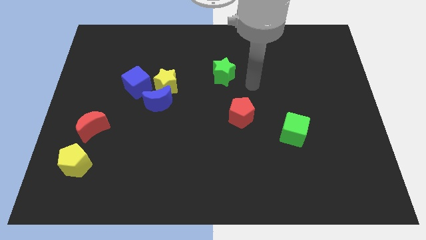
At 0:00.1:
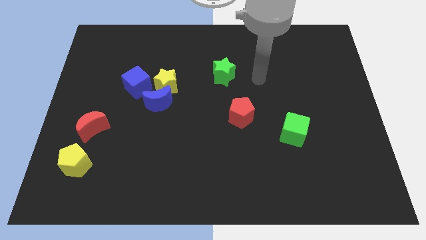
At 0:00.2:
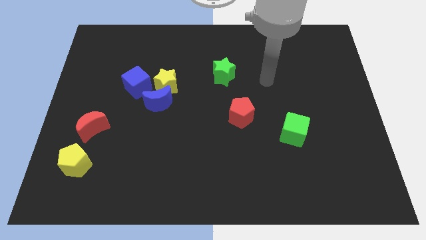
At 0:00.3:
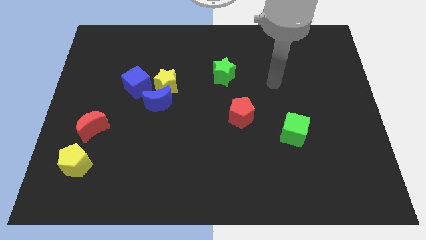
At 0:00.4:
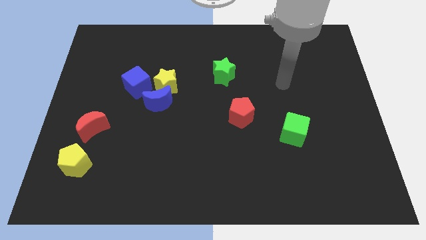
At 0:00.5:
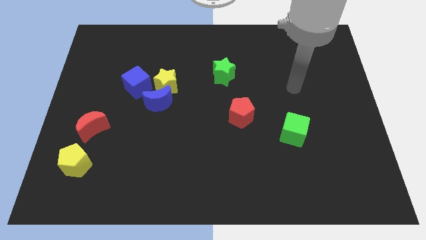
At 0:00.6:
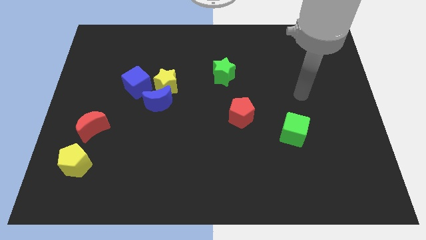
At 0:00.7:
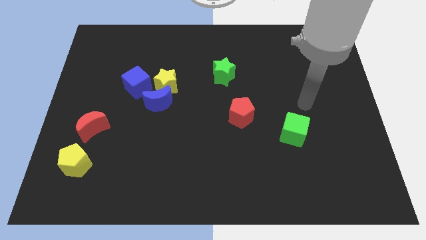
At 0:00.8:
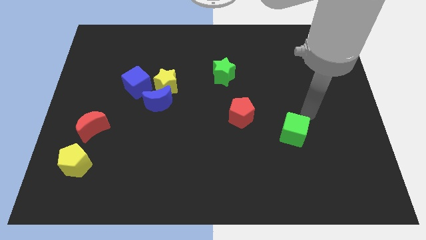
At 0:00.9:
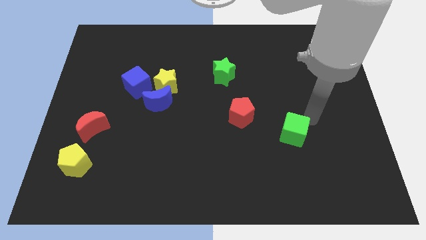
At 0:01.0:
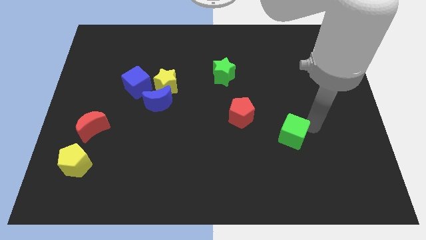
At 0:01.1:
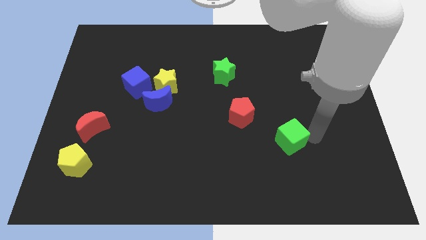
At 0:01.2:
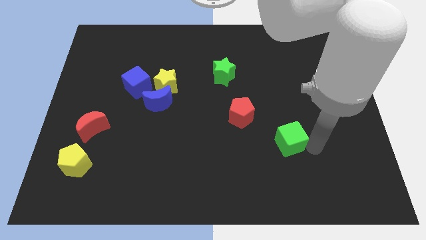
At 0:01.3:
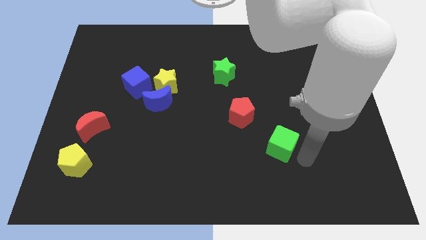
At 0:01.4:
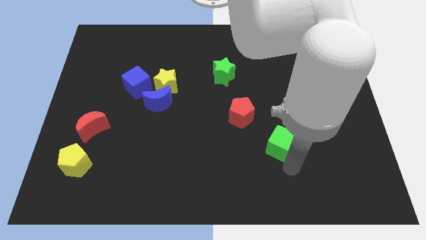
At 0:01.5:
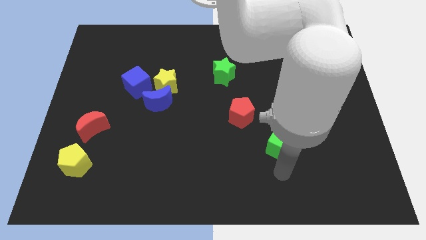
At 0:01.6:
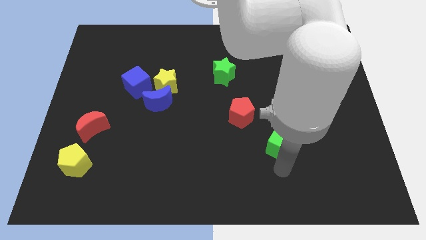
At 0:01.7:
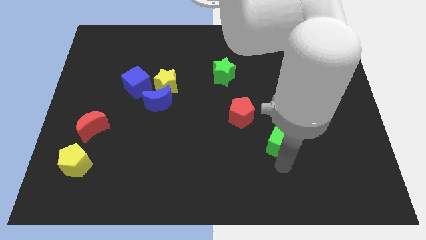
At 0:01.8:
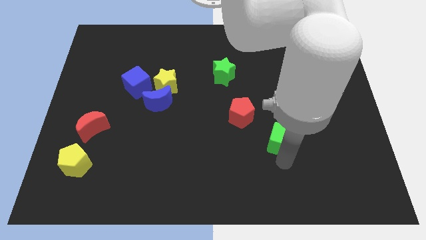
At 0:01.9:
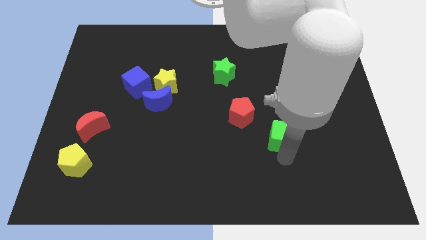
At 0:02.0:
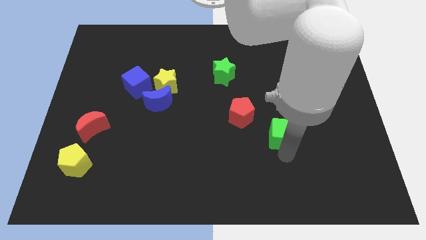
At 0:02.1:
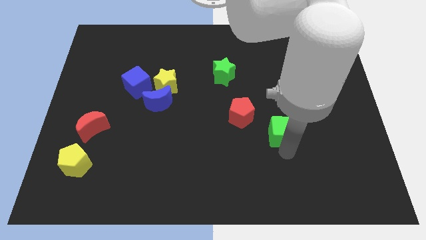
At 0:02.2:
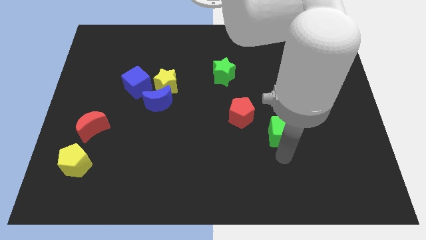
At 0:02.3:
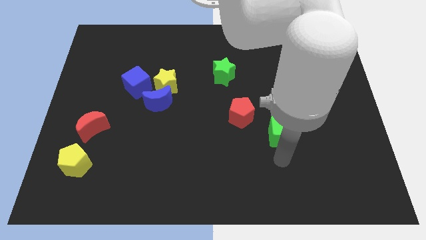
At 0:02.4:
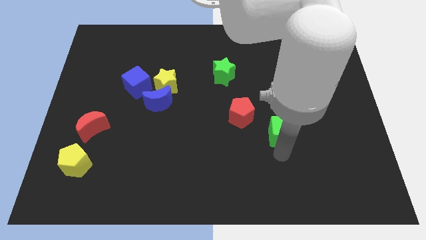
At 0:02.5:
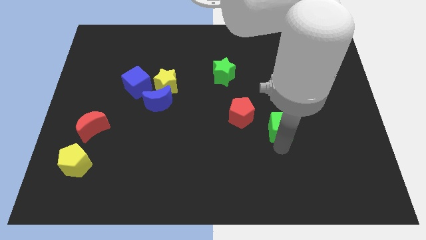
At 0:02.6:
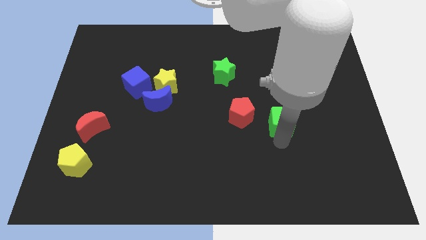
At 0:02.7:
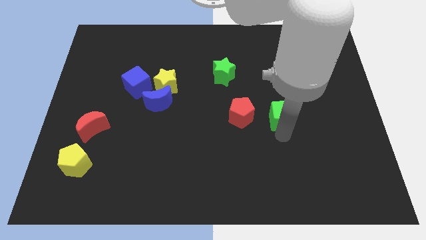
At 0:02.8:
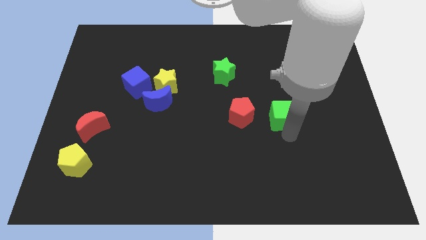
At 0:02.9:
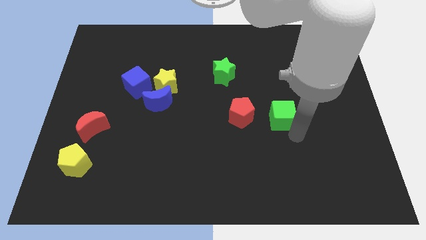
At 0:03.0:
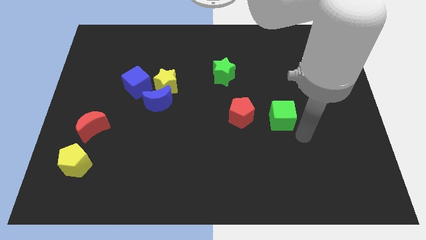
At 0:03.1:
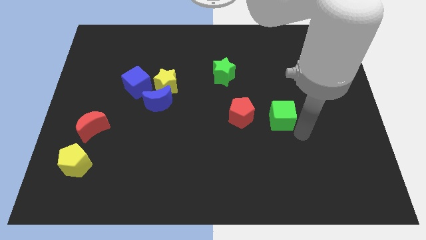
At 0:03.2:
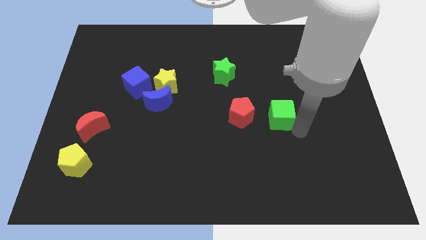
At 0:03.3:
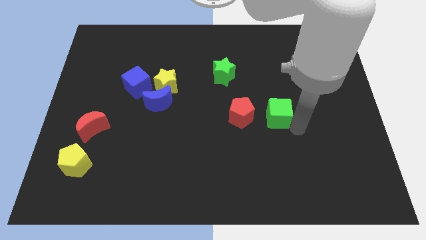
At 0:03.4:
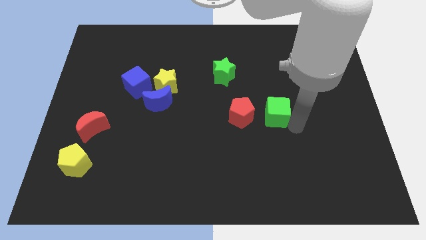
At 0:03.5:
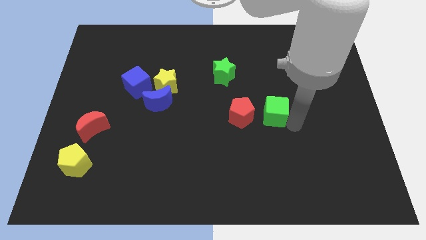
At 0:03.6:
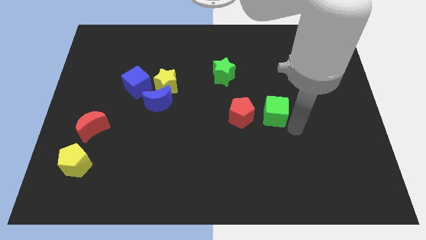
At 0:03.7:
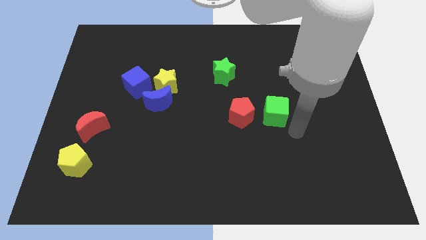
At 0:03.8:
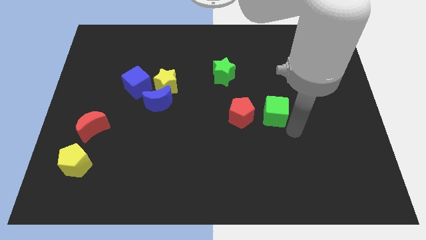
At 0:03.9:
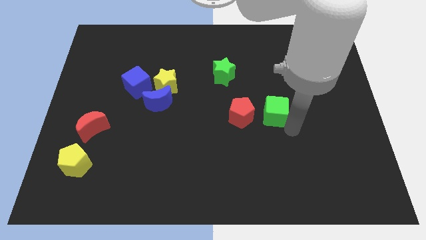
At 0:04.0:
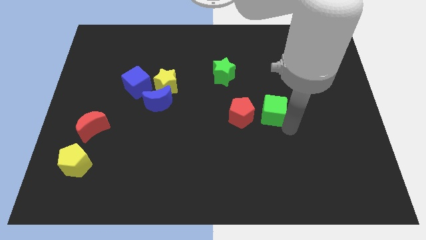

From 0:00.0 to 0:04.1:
slide the green cube somewhat upwards and to the left diagonally

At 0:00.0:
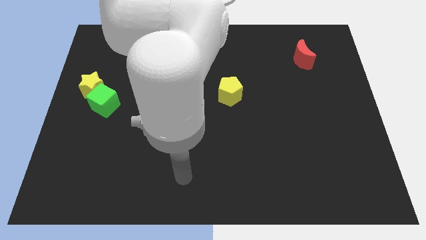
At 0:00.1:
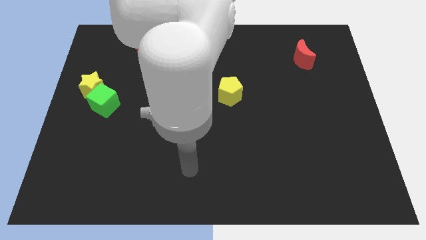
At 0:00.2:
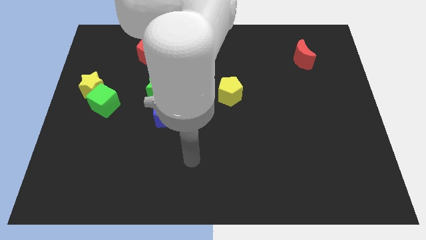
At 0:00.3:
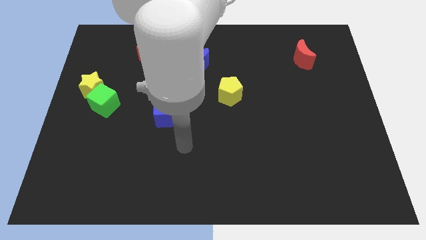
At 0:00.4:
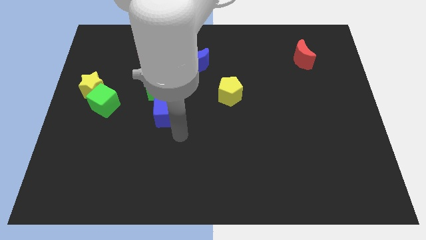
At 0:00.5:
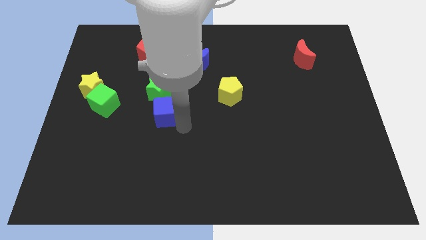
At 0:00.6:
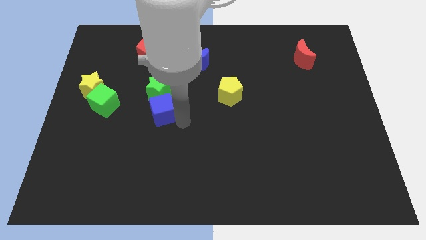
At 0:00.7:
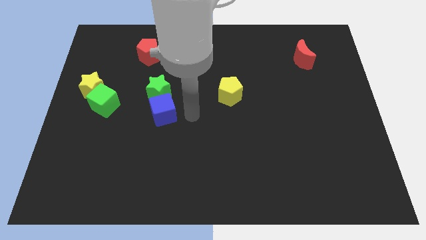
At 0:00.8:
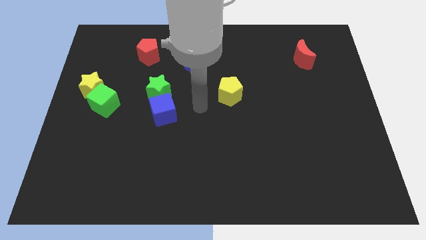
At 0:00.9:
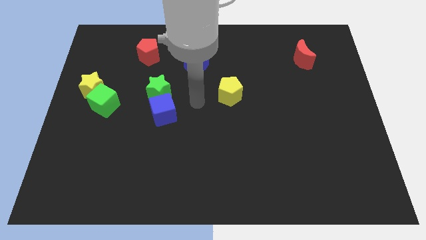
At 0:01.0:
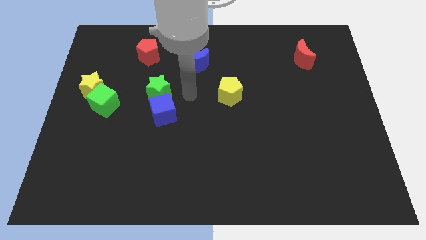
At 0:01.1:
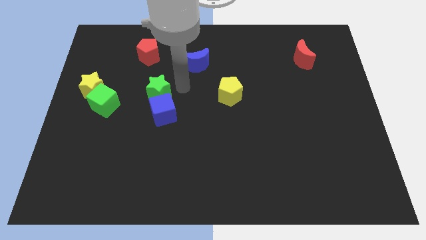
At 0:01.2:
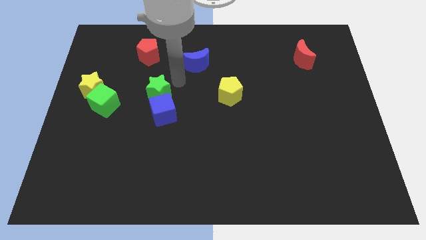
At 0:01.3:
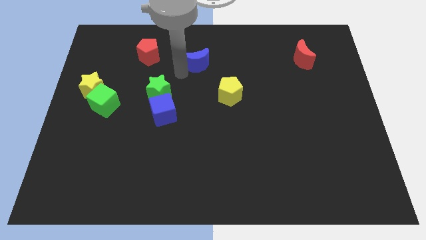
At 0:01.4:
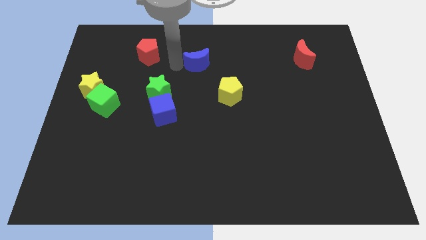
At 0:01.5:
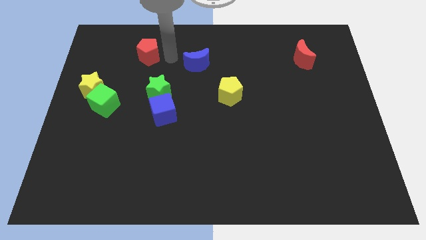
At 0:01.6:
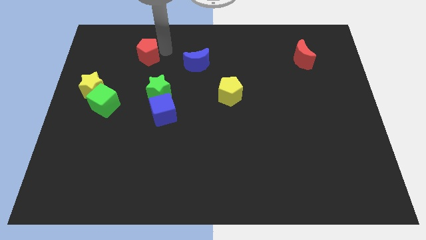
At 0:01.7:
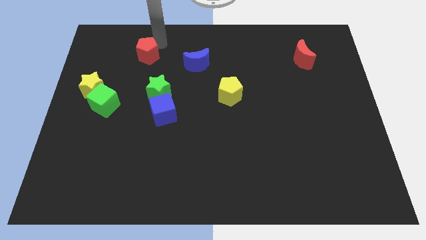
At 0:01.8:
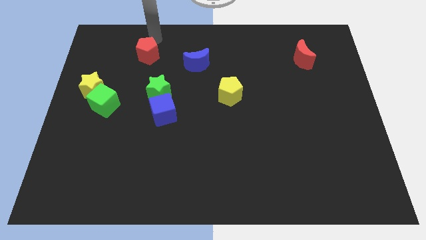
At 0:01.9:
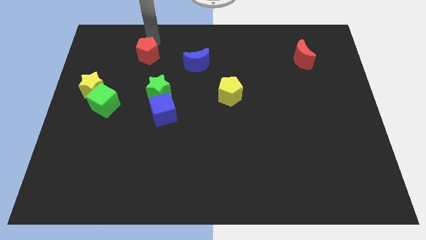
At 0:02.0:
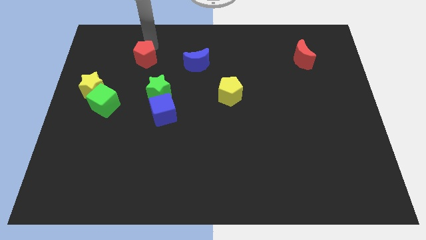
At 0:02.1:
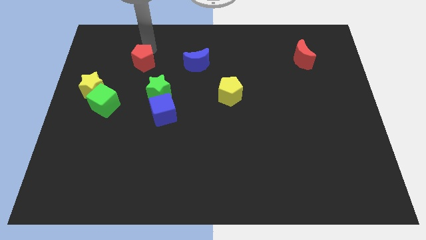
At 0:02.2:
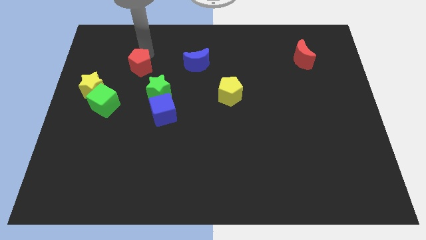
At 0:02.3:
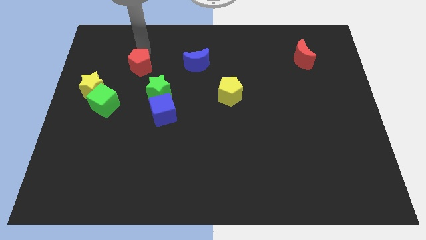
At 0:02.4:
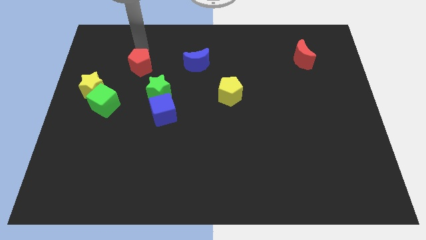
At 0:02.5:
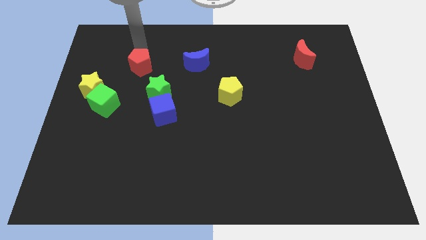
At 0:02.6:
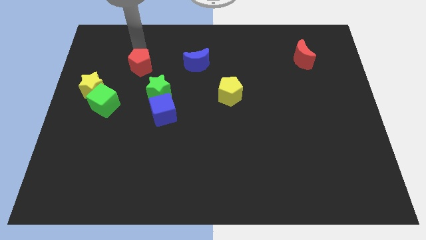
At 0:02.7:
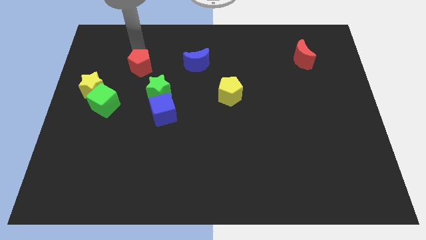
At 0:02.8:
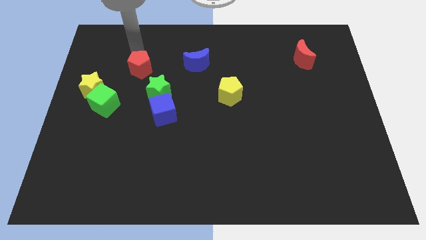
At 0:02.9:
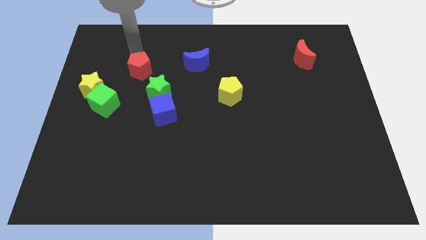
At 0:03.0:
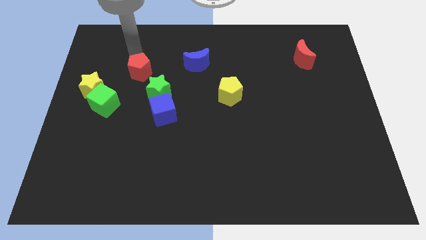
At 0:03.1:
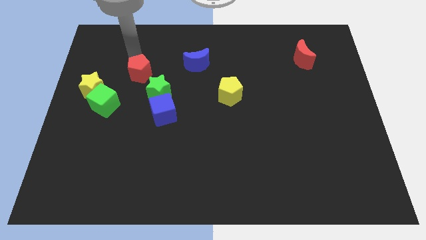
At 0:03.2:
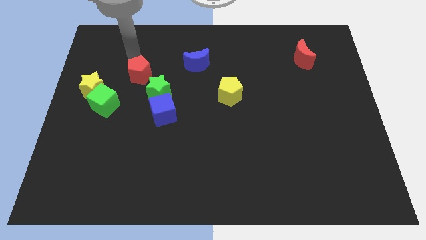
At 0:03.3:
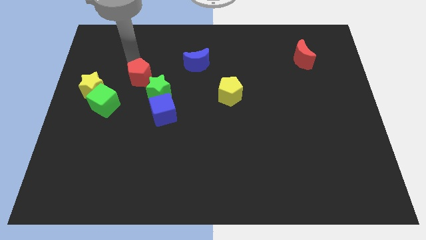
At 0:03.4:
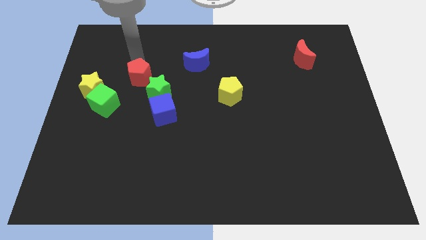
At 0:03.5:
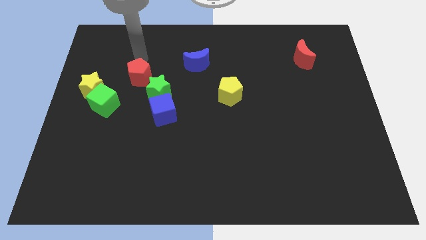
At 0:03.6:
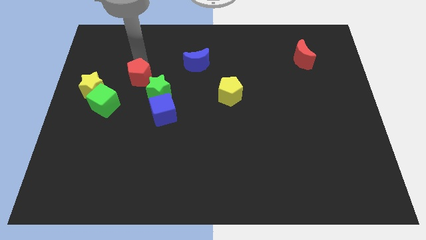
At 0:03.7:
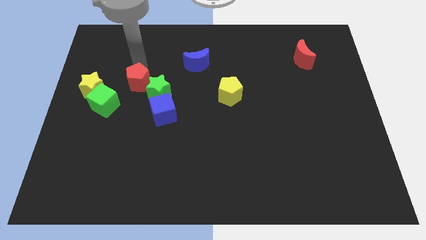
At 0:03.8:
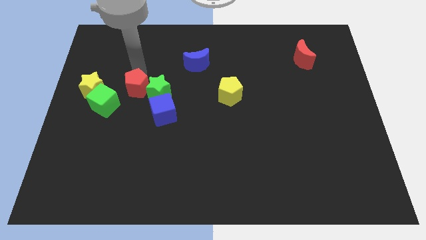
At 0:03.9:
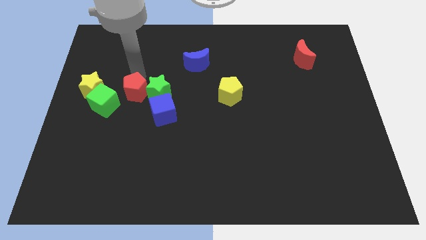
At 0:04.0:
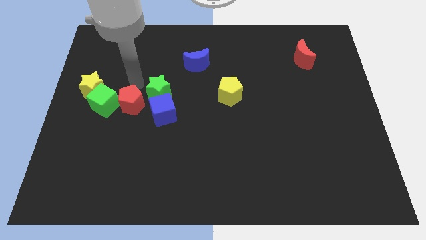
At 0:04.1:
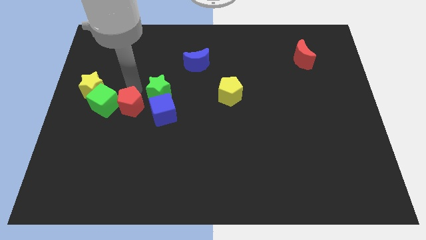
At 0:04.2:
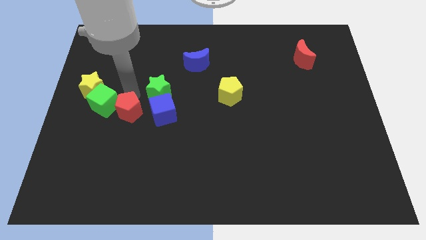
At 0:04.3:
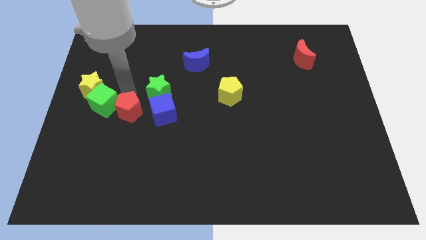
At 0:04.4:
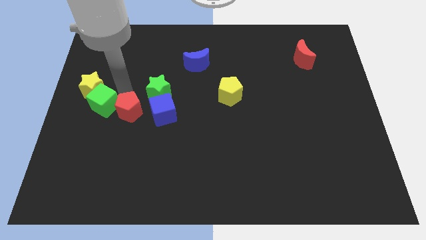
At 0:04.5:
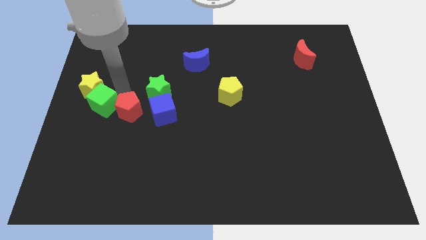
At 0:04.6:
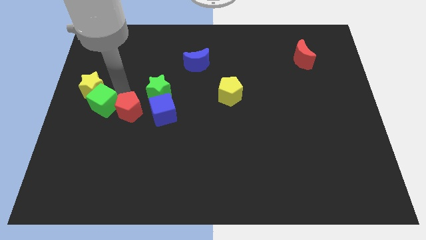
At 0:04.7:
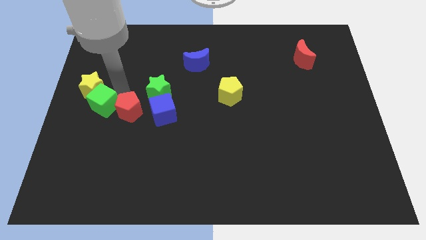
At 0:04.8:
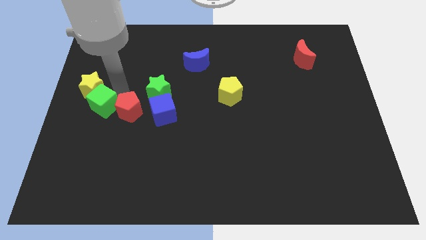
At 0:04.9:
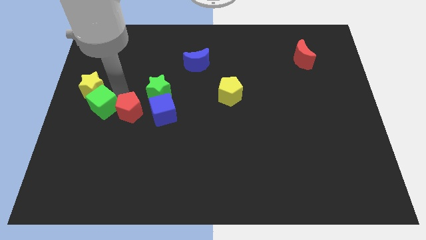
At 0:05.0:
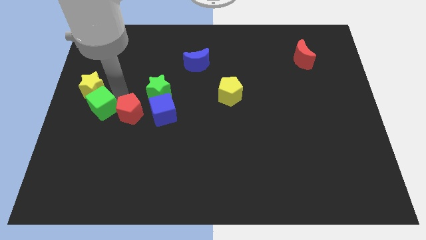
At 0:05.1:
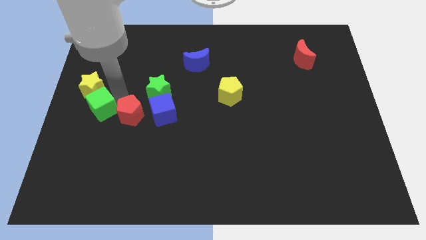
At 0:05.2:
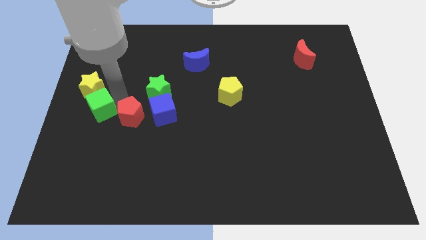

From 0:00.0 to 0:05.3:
slide the red pentagon downwards
